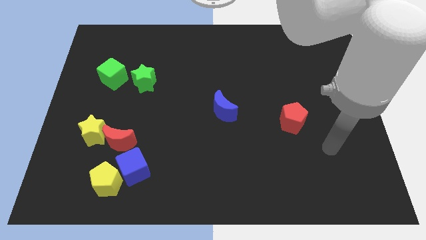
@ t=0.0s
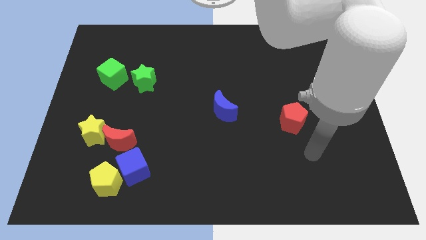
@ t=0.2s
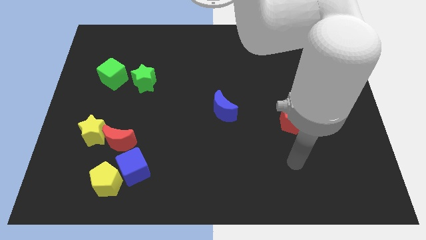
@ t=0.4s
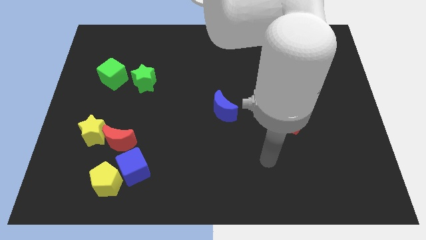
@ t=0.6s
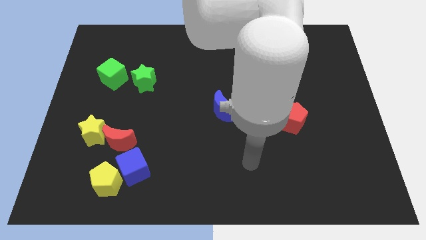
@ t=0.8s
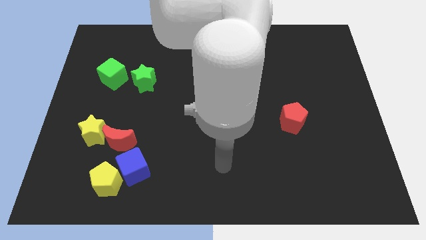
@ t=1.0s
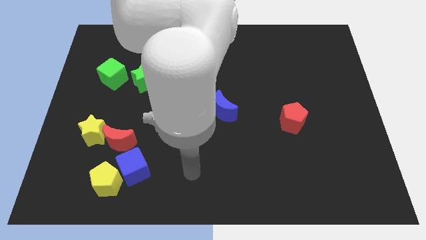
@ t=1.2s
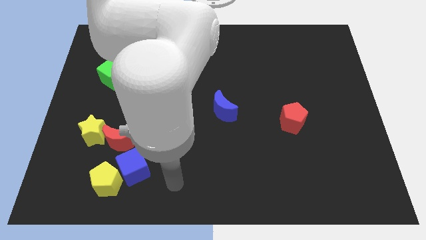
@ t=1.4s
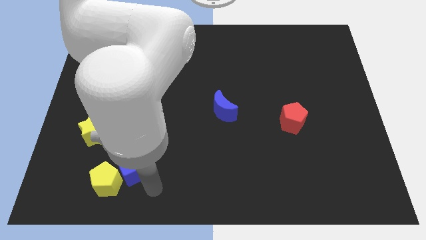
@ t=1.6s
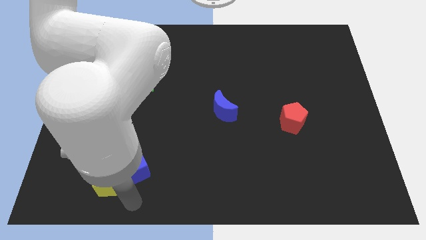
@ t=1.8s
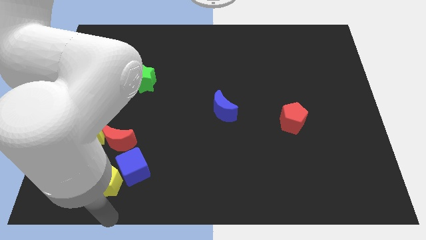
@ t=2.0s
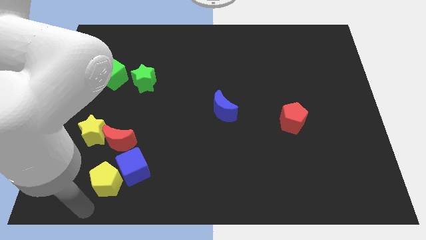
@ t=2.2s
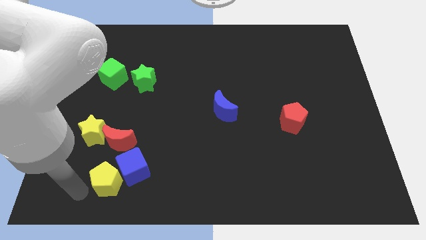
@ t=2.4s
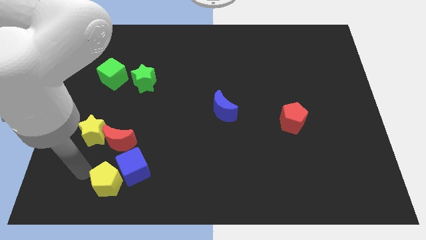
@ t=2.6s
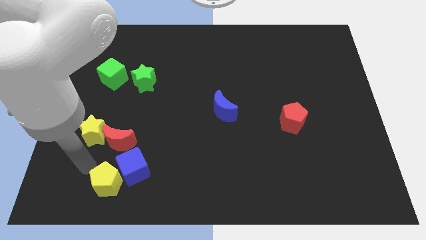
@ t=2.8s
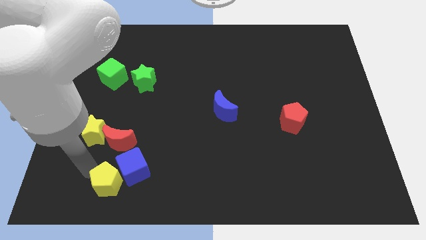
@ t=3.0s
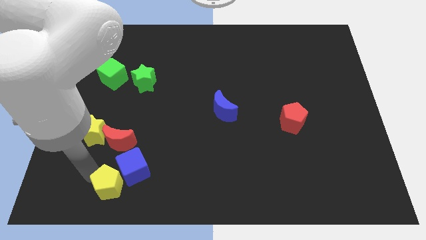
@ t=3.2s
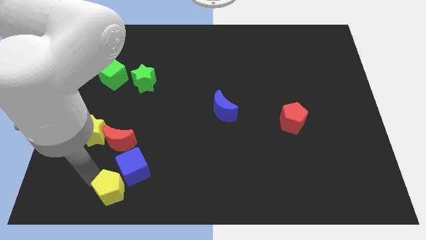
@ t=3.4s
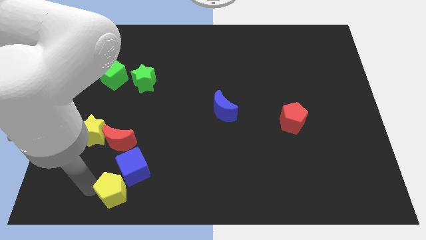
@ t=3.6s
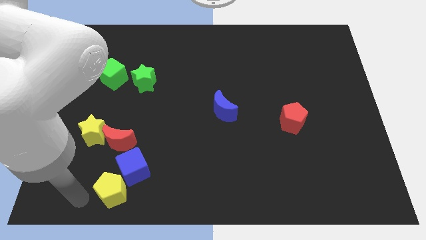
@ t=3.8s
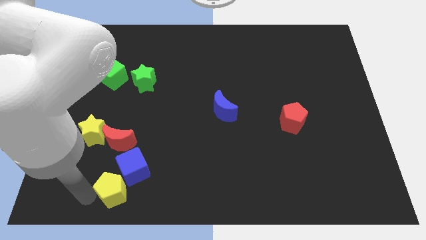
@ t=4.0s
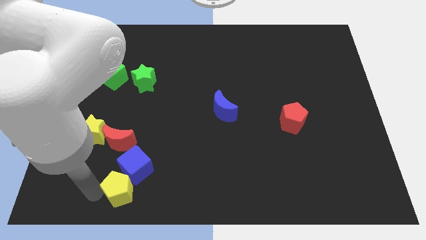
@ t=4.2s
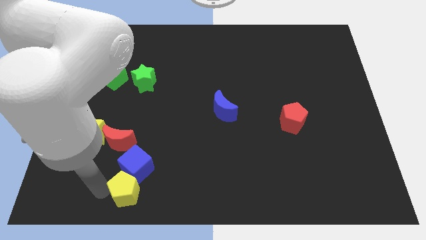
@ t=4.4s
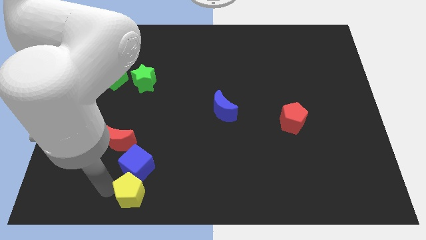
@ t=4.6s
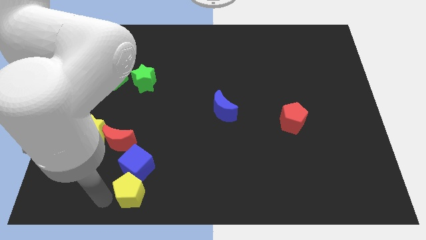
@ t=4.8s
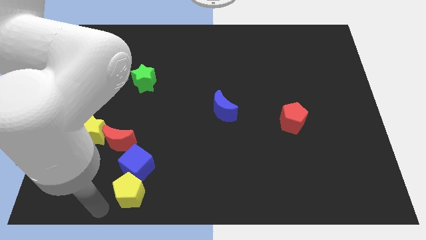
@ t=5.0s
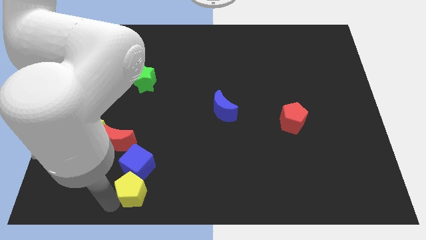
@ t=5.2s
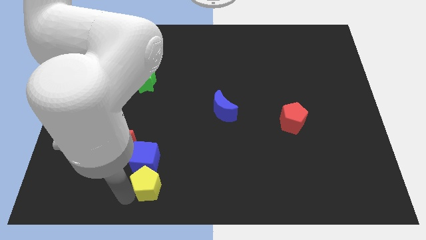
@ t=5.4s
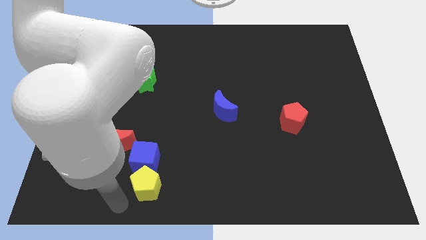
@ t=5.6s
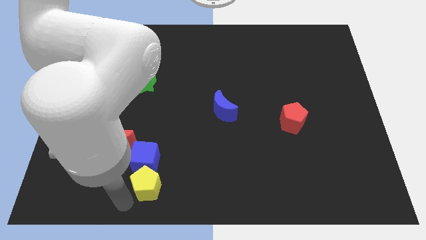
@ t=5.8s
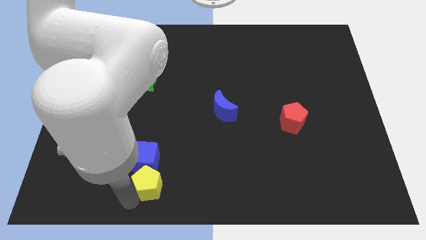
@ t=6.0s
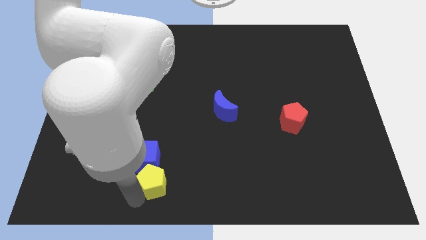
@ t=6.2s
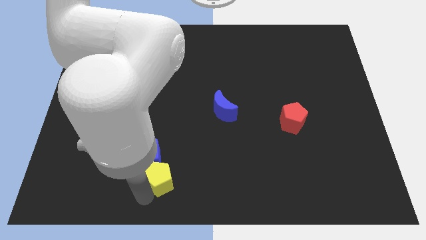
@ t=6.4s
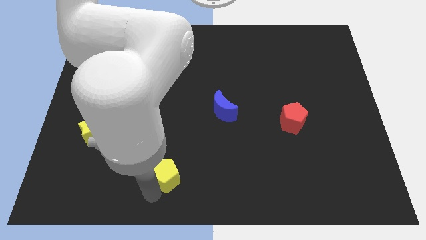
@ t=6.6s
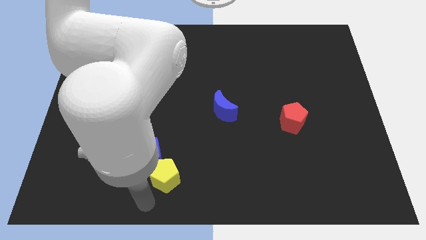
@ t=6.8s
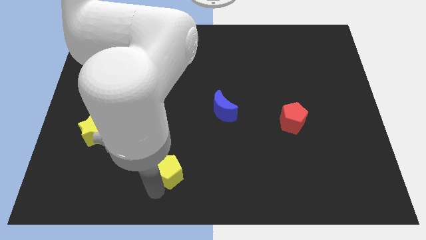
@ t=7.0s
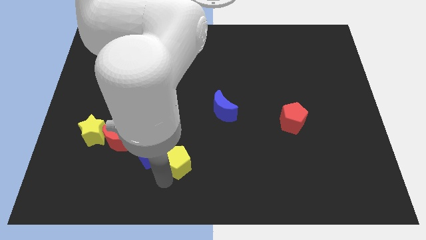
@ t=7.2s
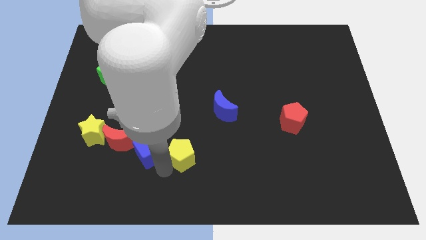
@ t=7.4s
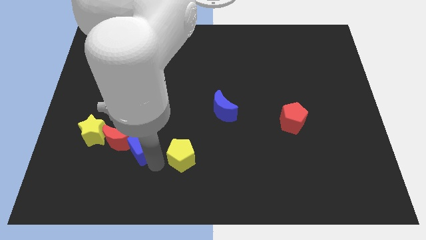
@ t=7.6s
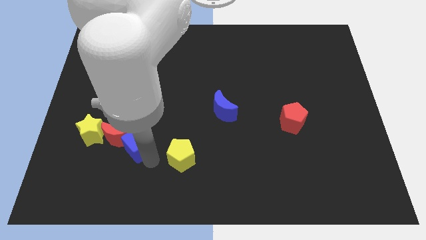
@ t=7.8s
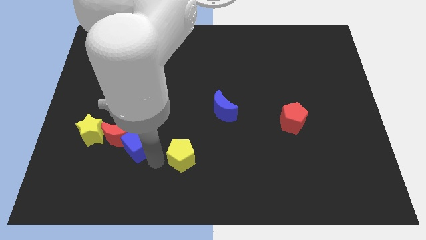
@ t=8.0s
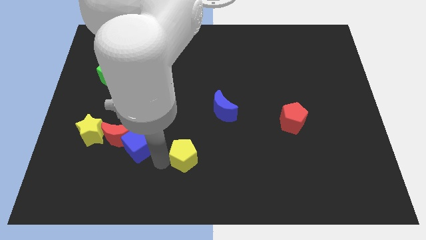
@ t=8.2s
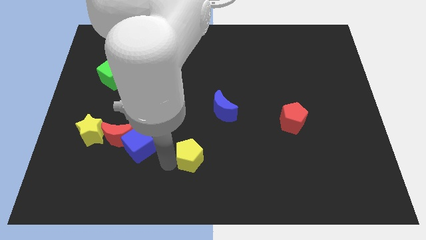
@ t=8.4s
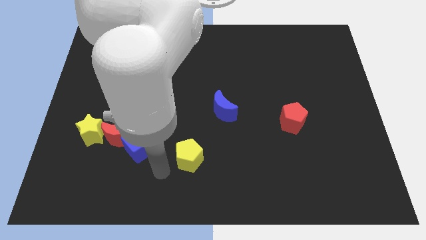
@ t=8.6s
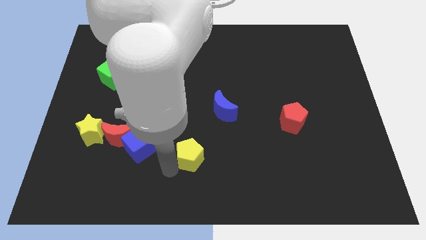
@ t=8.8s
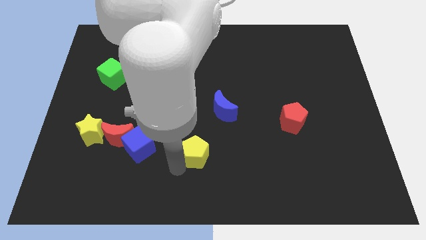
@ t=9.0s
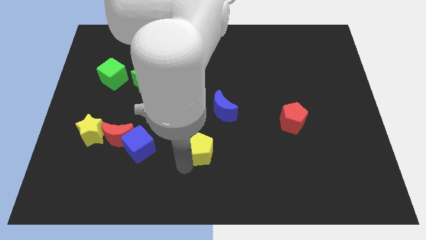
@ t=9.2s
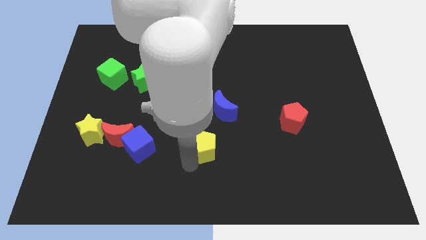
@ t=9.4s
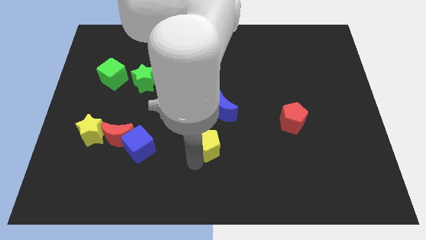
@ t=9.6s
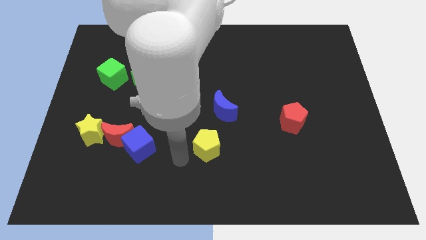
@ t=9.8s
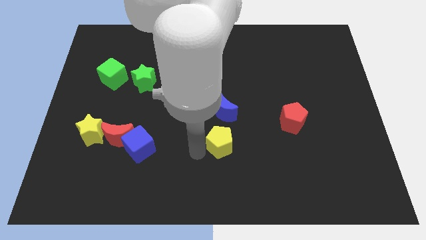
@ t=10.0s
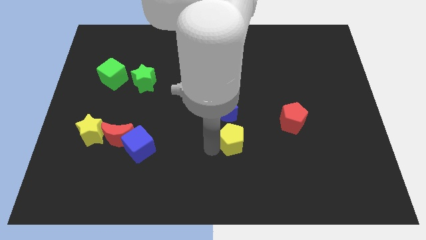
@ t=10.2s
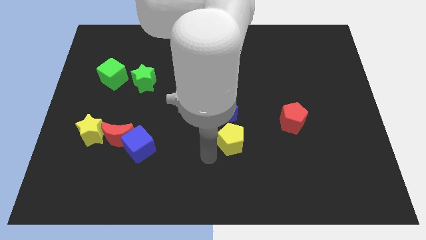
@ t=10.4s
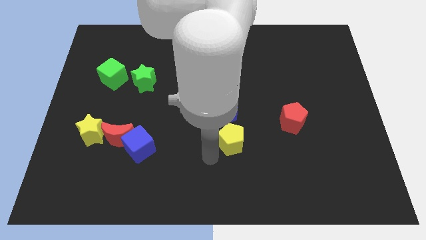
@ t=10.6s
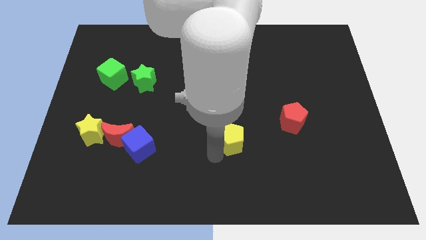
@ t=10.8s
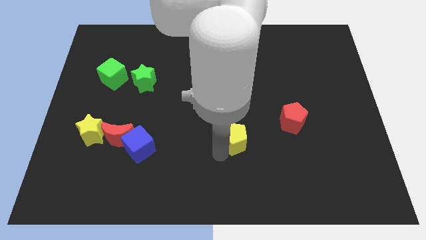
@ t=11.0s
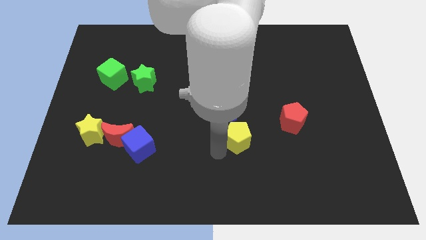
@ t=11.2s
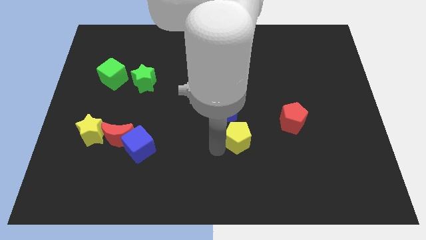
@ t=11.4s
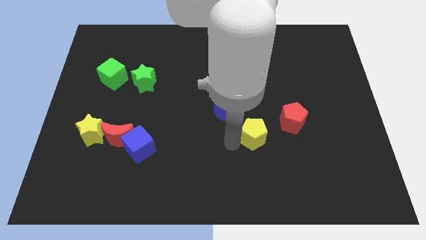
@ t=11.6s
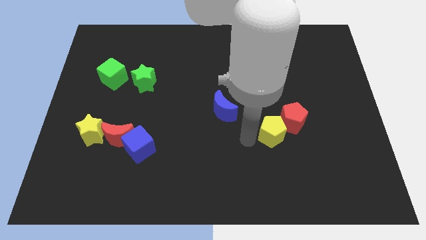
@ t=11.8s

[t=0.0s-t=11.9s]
put the yellow pentagon close to the red pentagon

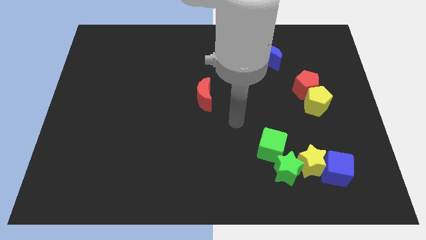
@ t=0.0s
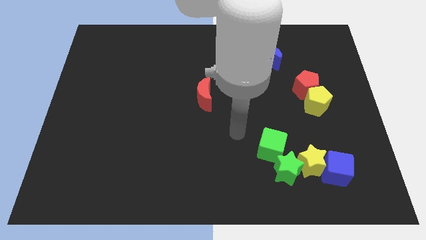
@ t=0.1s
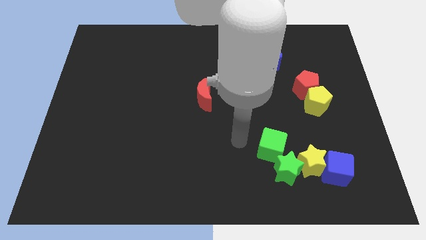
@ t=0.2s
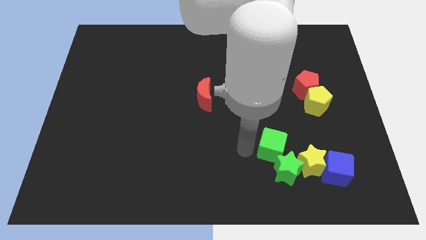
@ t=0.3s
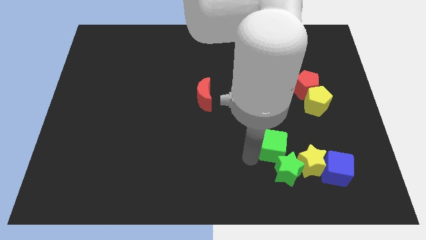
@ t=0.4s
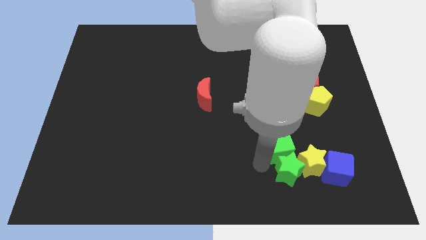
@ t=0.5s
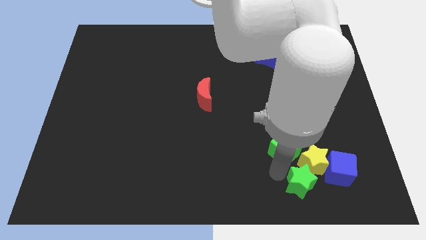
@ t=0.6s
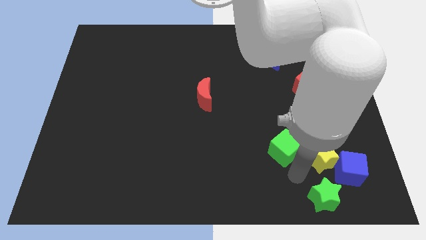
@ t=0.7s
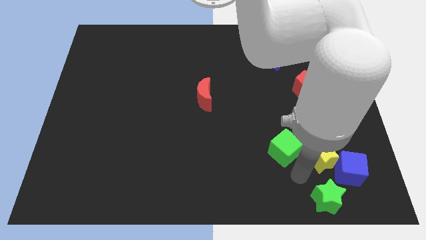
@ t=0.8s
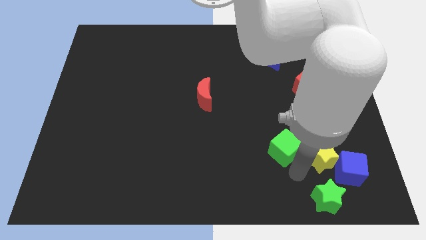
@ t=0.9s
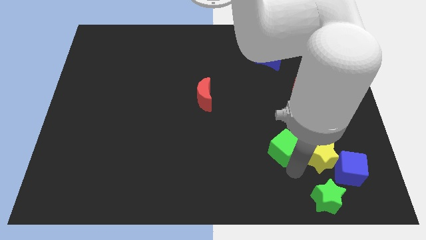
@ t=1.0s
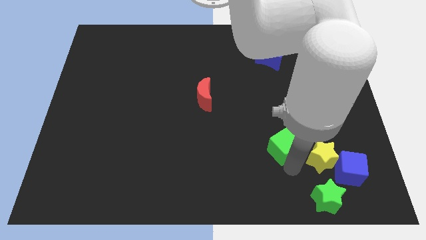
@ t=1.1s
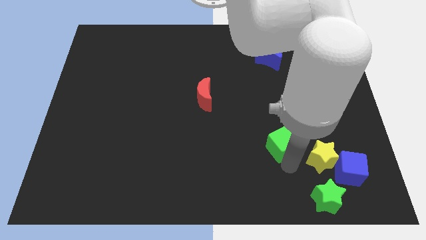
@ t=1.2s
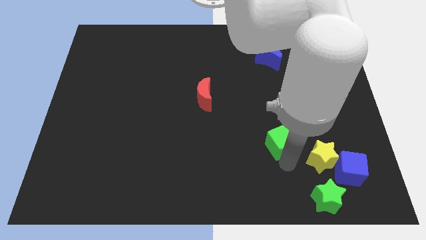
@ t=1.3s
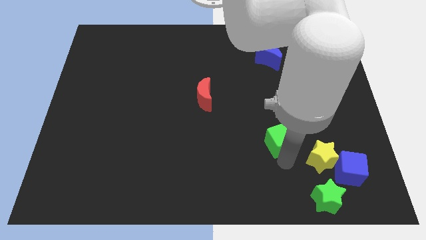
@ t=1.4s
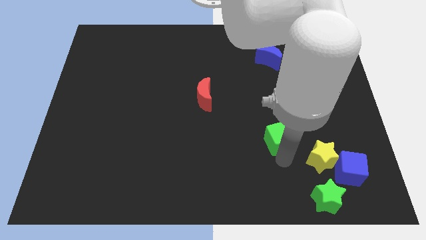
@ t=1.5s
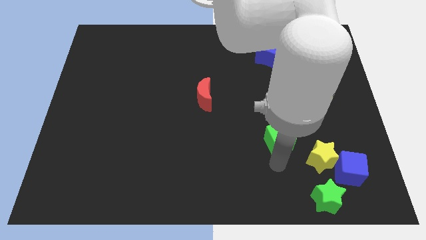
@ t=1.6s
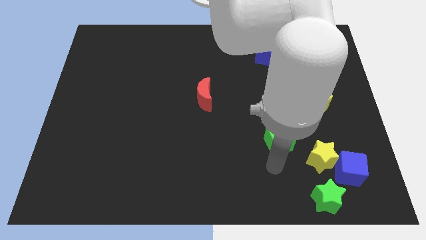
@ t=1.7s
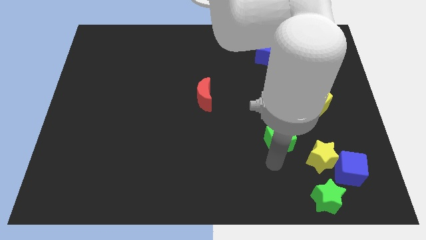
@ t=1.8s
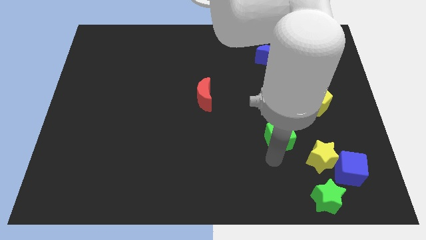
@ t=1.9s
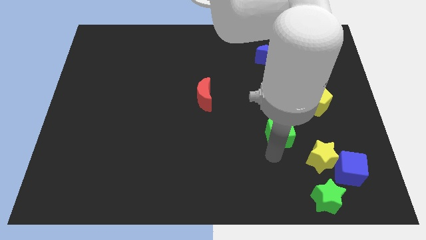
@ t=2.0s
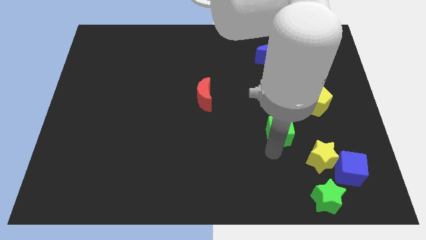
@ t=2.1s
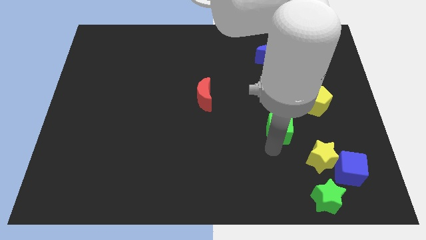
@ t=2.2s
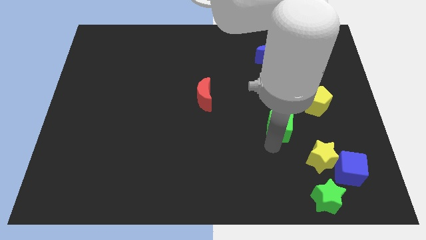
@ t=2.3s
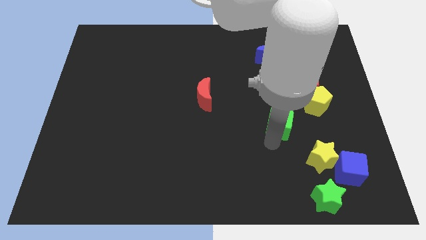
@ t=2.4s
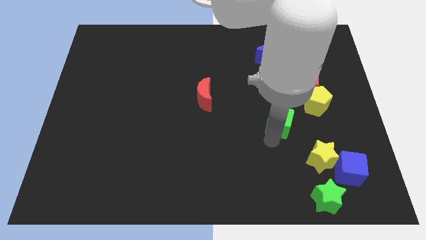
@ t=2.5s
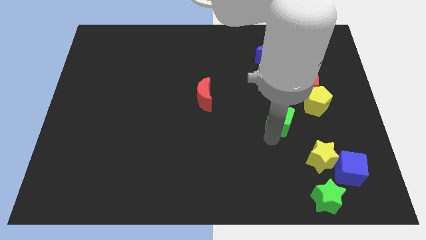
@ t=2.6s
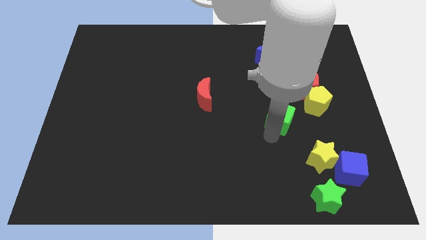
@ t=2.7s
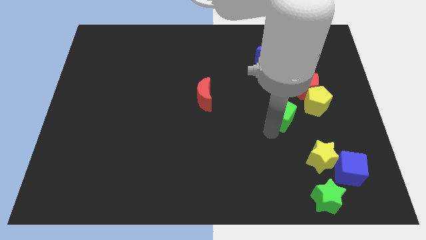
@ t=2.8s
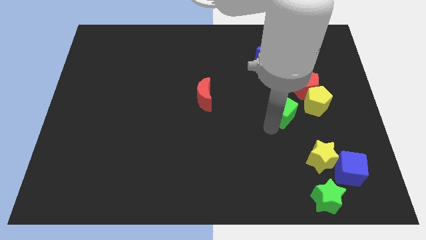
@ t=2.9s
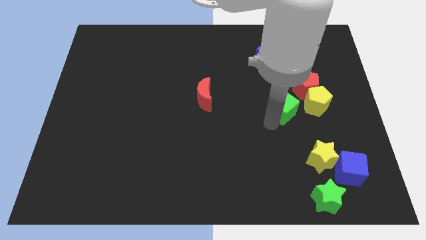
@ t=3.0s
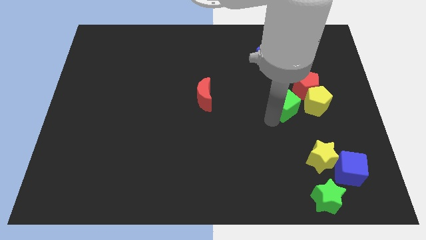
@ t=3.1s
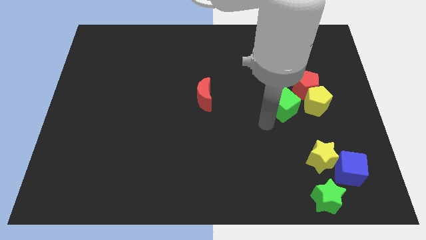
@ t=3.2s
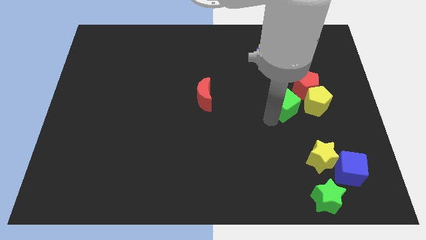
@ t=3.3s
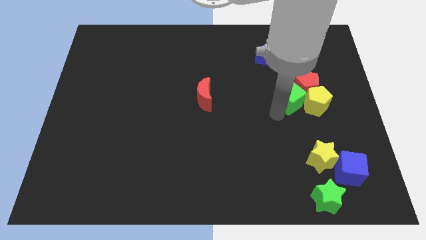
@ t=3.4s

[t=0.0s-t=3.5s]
slide the green cube to the red pentagon
